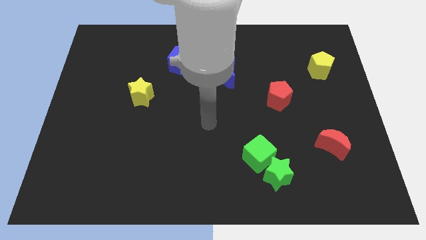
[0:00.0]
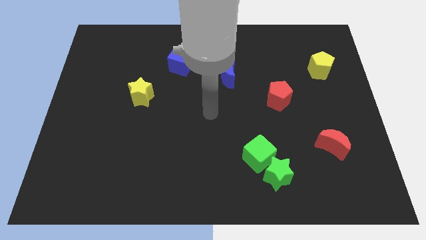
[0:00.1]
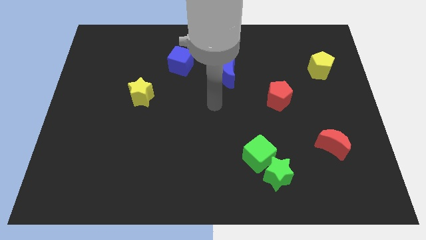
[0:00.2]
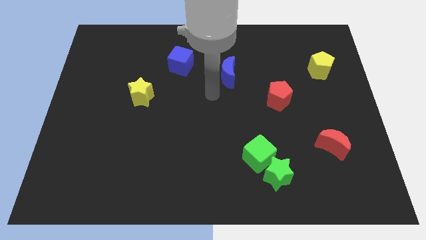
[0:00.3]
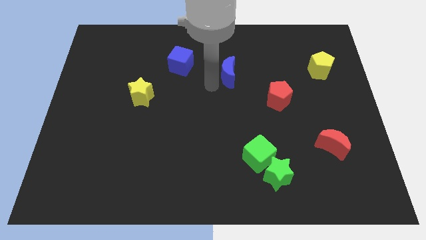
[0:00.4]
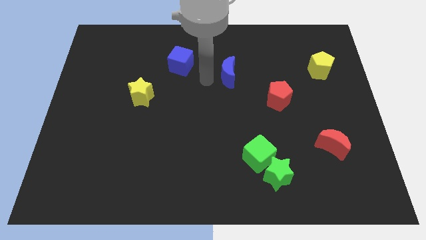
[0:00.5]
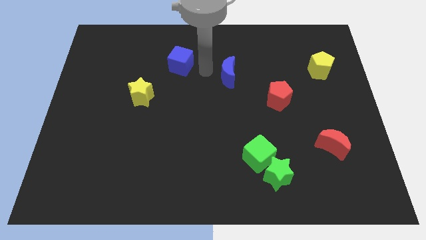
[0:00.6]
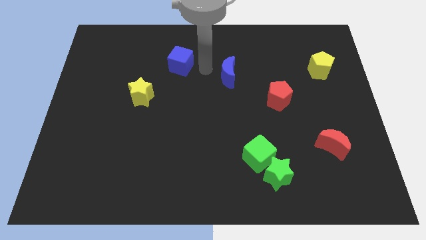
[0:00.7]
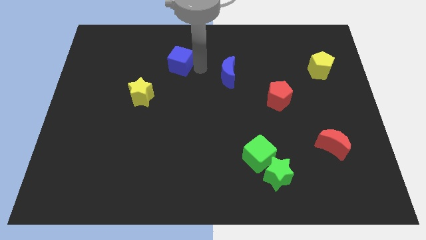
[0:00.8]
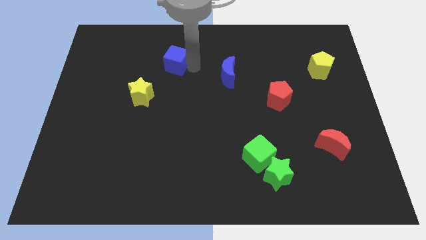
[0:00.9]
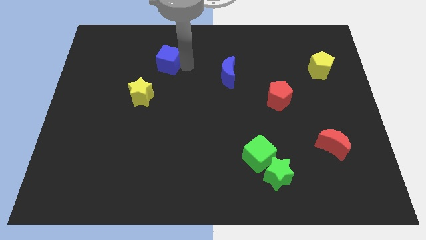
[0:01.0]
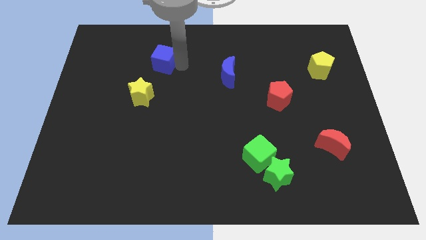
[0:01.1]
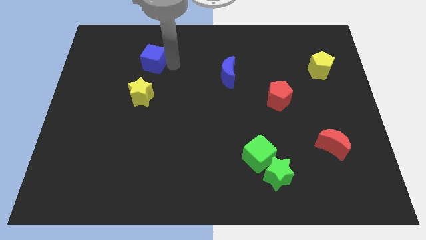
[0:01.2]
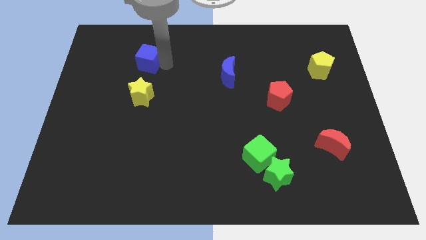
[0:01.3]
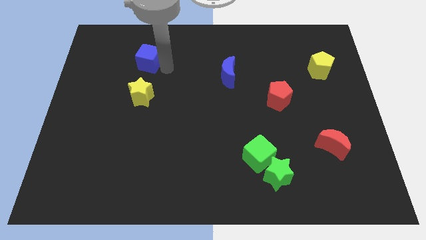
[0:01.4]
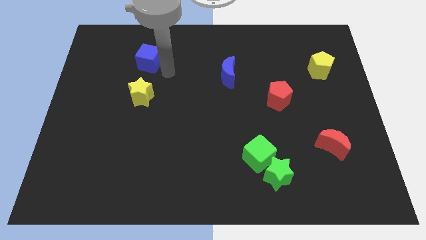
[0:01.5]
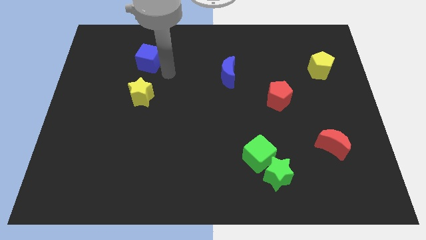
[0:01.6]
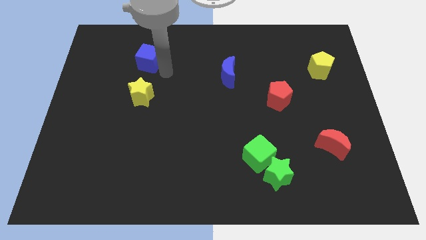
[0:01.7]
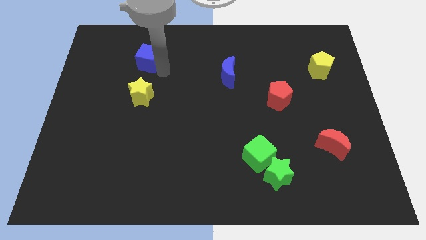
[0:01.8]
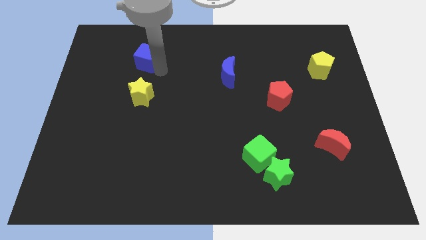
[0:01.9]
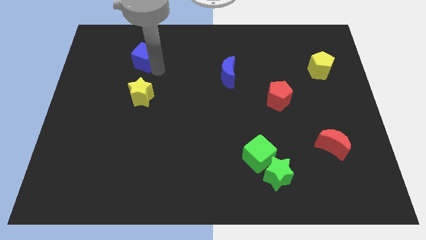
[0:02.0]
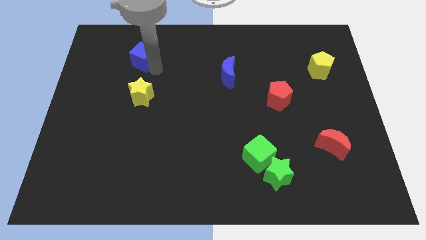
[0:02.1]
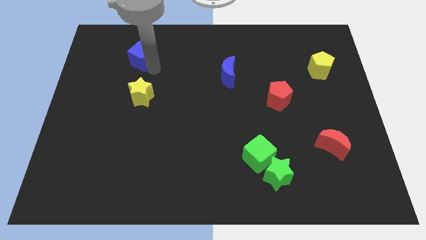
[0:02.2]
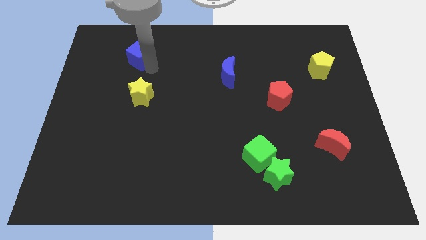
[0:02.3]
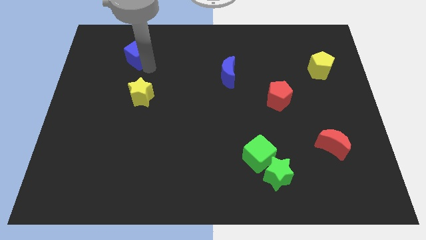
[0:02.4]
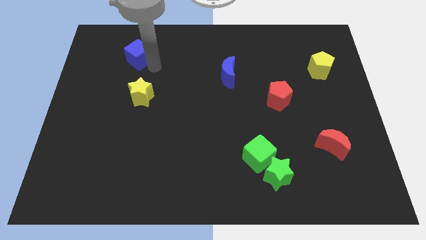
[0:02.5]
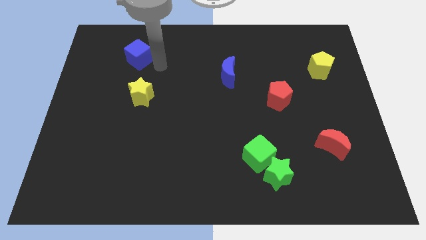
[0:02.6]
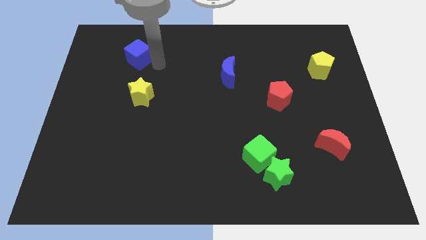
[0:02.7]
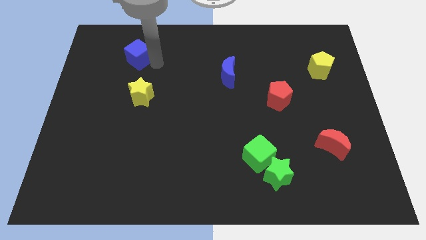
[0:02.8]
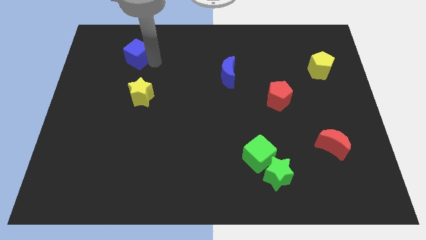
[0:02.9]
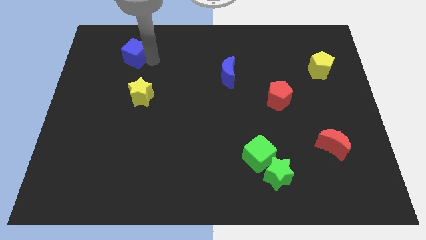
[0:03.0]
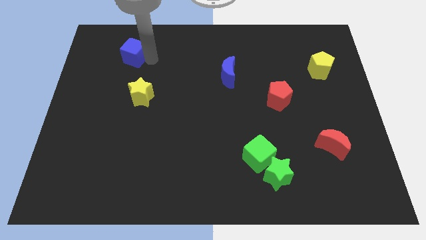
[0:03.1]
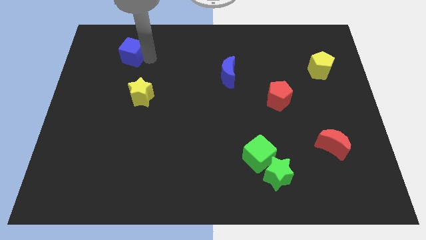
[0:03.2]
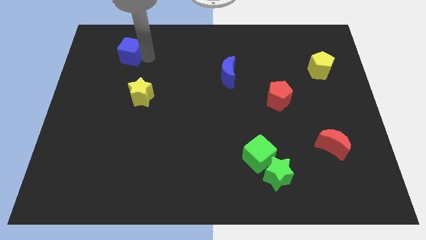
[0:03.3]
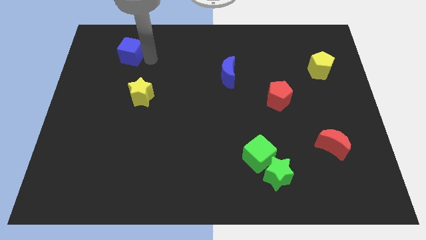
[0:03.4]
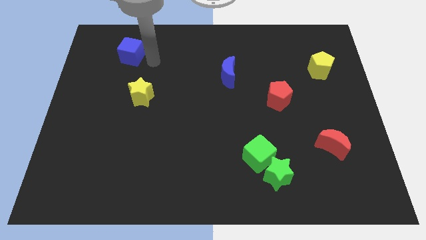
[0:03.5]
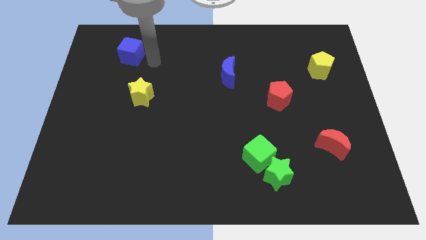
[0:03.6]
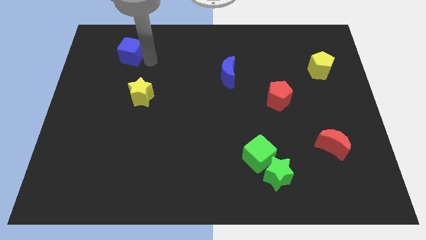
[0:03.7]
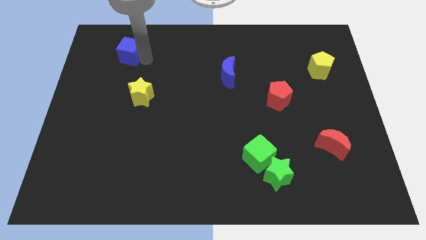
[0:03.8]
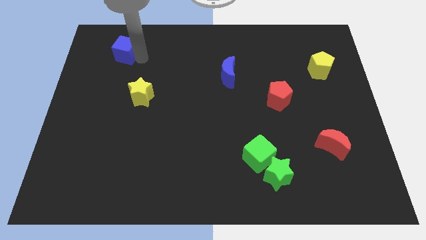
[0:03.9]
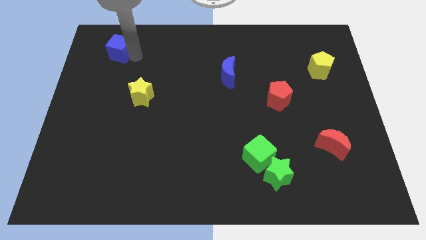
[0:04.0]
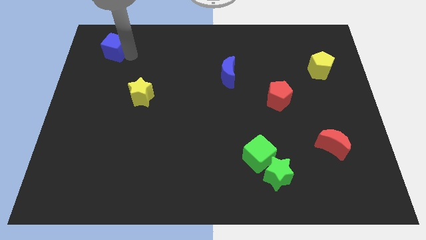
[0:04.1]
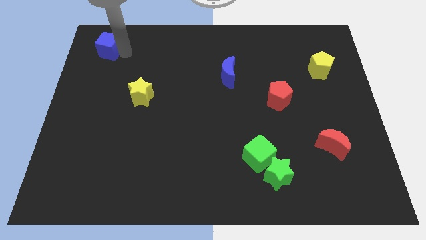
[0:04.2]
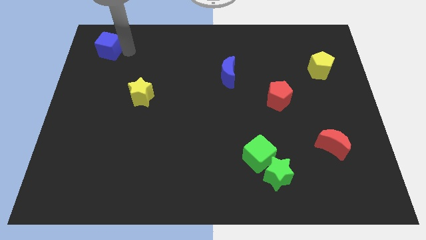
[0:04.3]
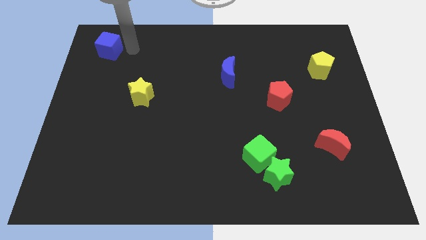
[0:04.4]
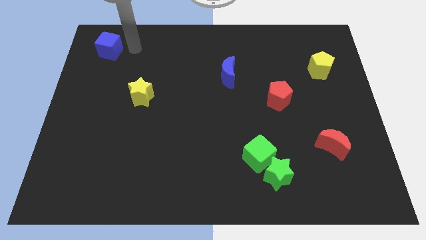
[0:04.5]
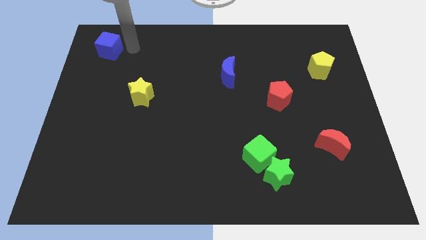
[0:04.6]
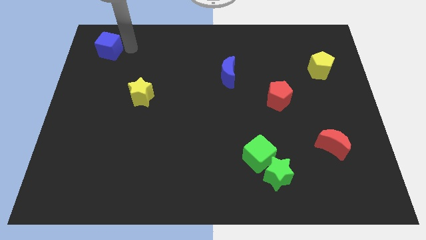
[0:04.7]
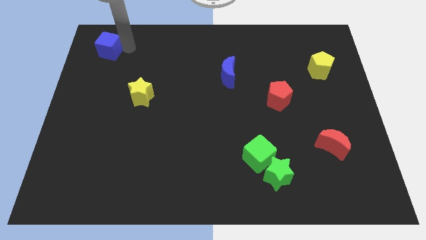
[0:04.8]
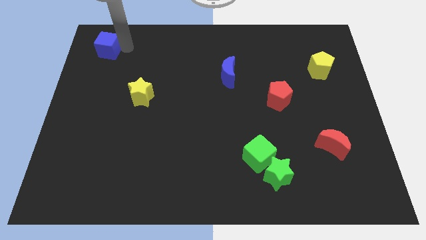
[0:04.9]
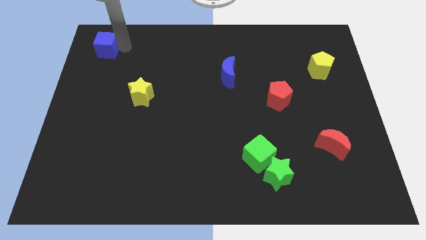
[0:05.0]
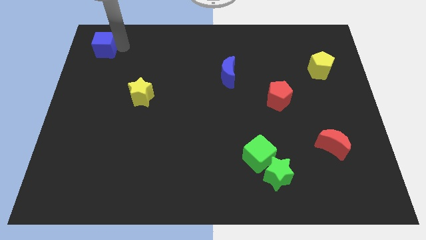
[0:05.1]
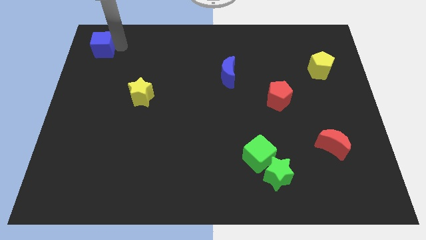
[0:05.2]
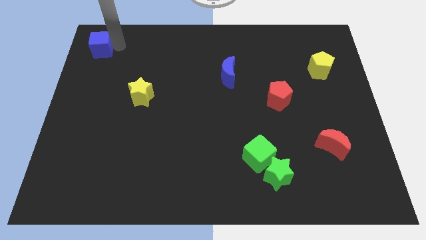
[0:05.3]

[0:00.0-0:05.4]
slide the blue cube to the upper left corner

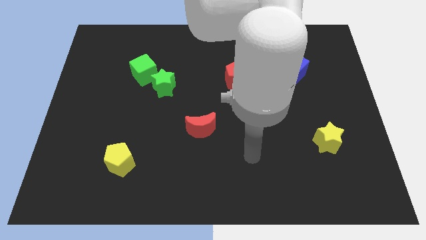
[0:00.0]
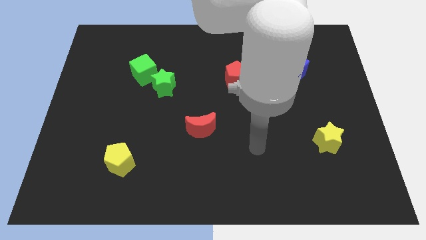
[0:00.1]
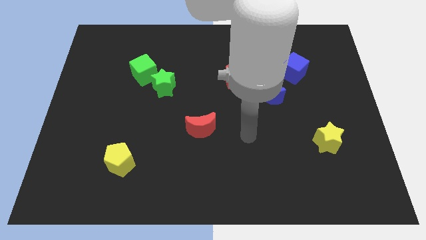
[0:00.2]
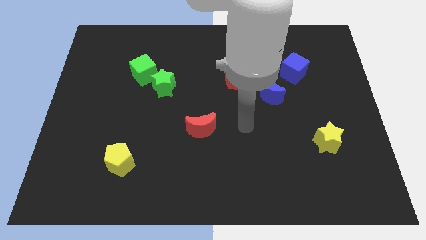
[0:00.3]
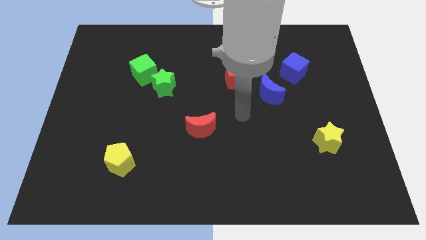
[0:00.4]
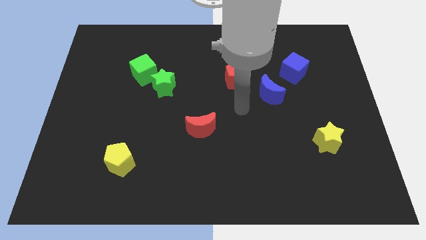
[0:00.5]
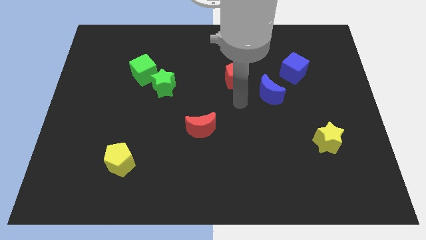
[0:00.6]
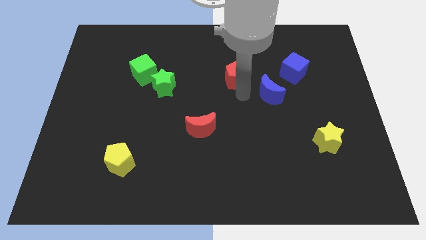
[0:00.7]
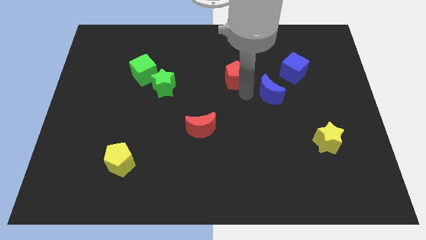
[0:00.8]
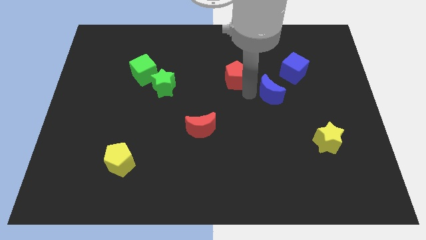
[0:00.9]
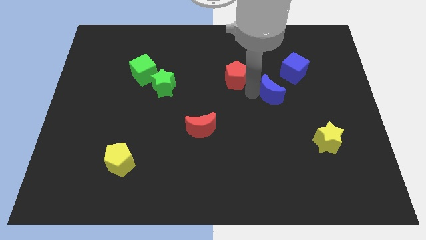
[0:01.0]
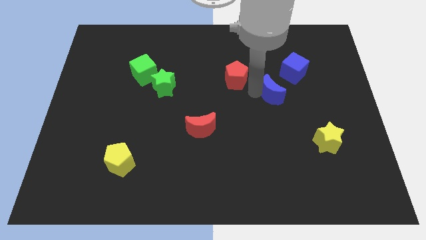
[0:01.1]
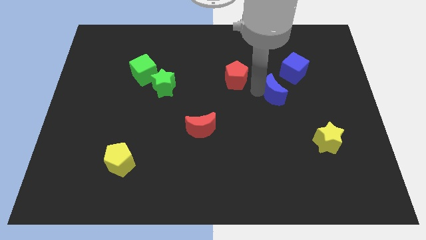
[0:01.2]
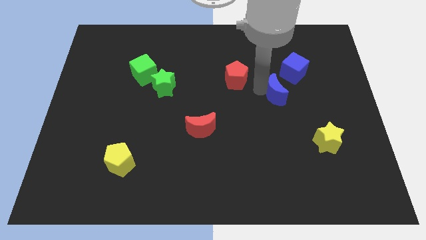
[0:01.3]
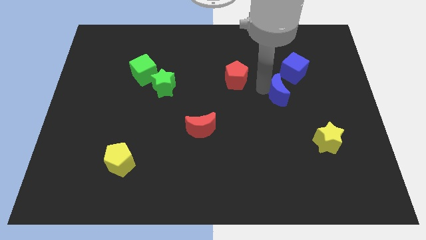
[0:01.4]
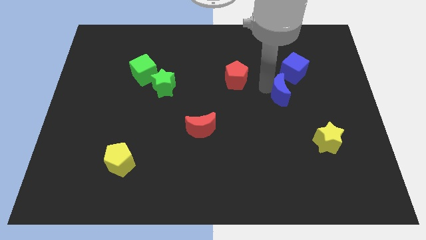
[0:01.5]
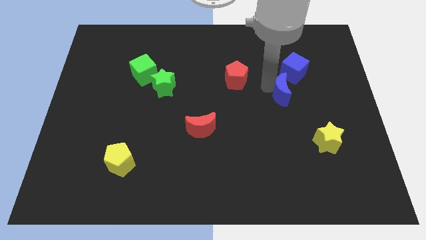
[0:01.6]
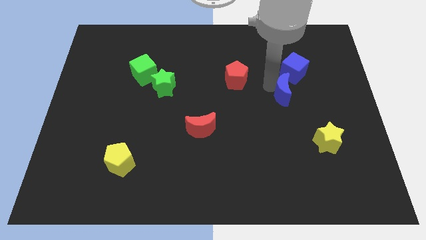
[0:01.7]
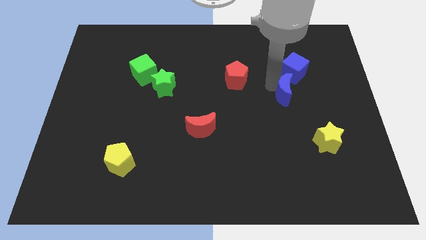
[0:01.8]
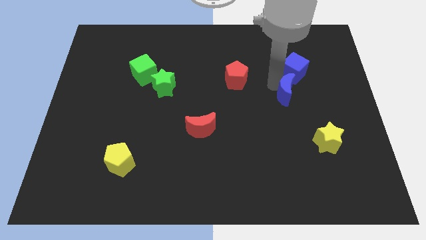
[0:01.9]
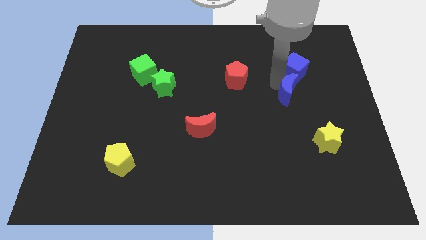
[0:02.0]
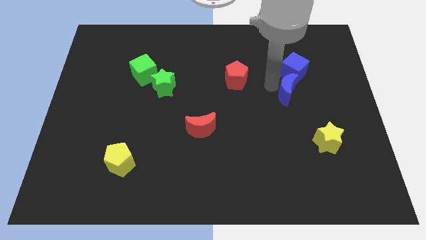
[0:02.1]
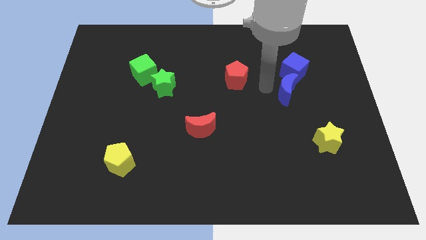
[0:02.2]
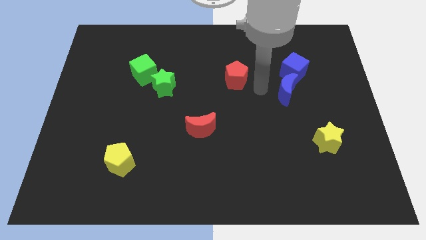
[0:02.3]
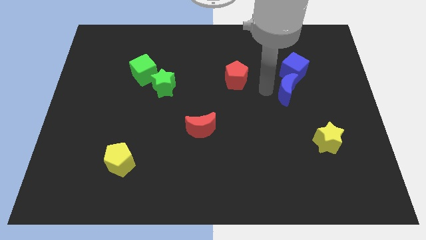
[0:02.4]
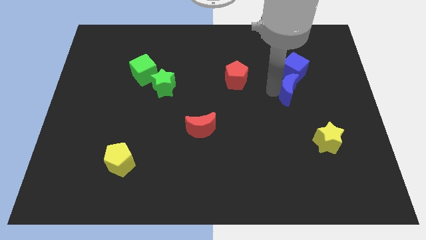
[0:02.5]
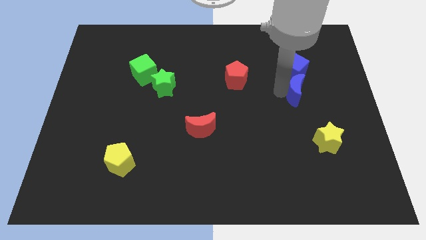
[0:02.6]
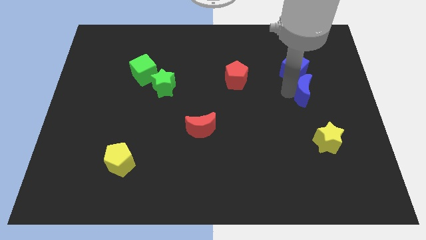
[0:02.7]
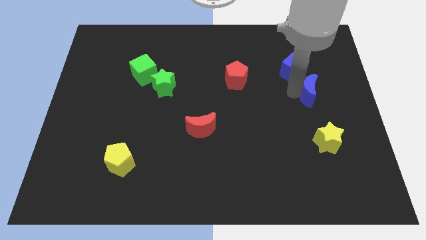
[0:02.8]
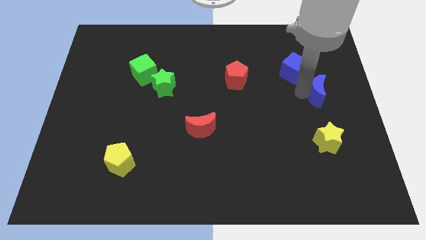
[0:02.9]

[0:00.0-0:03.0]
push the blue moon to the center right
